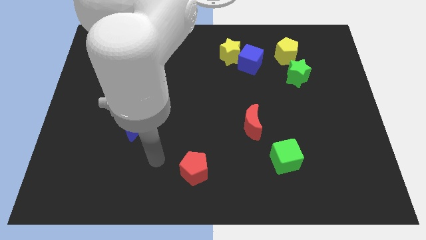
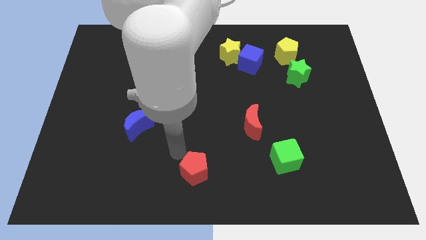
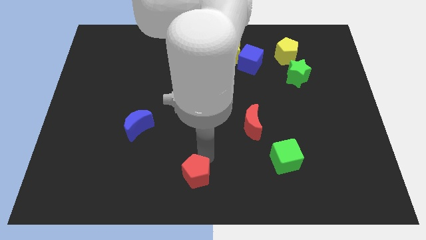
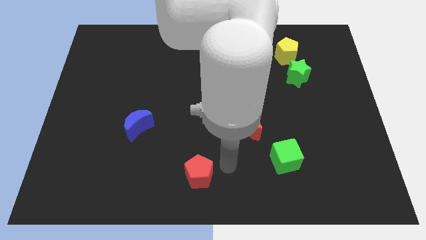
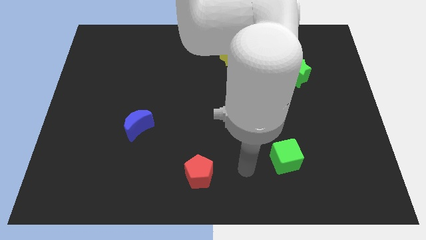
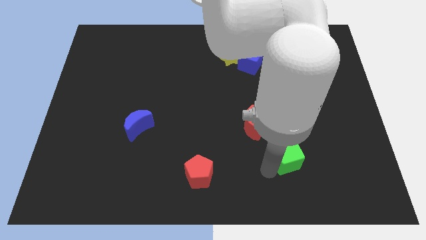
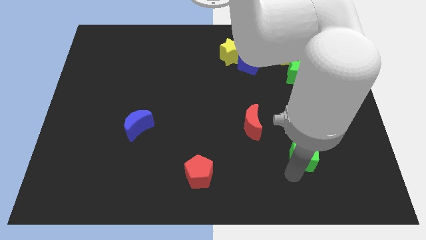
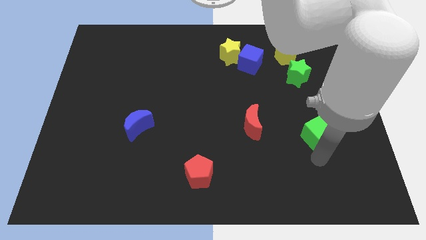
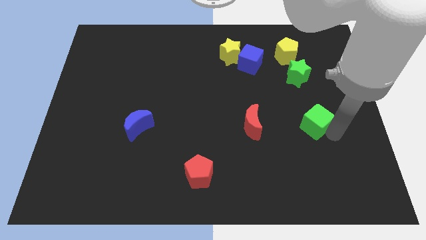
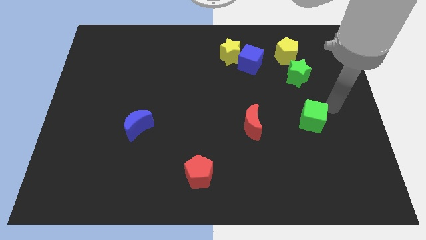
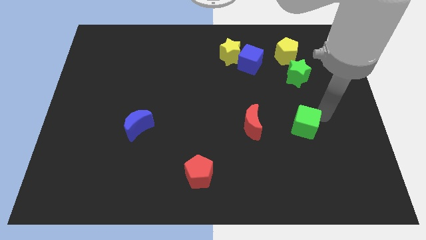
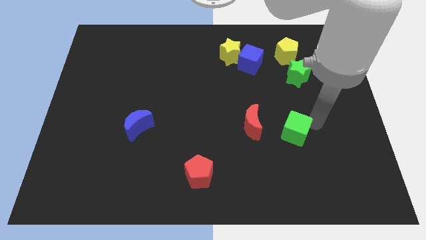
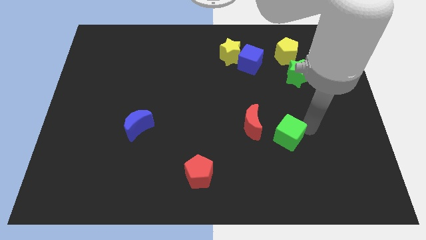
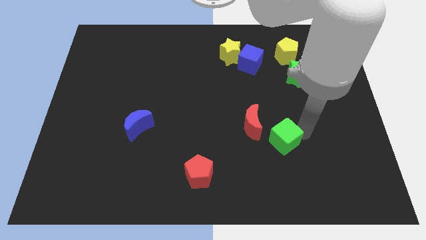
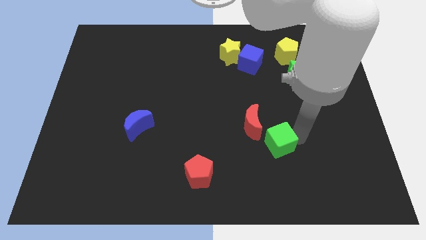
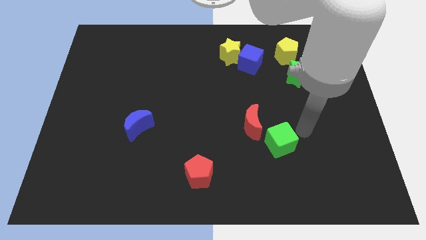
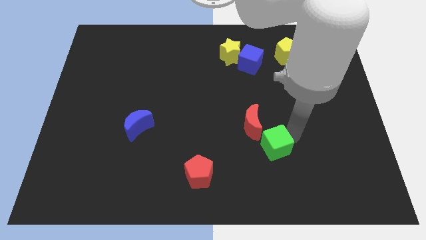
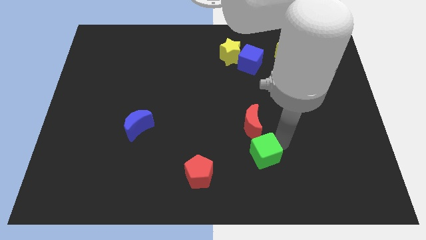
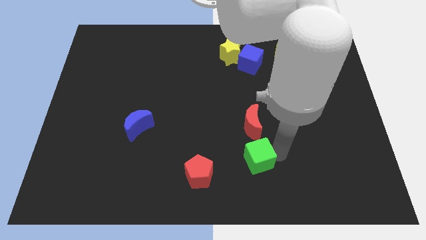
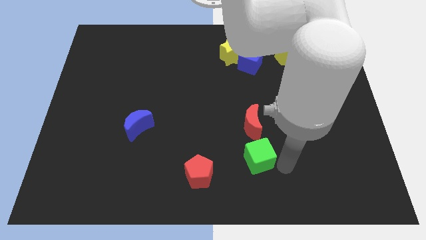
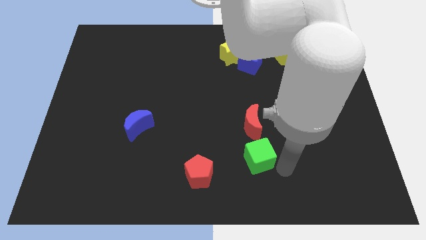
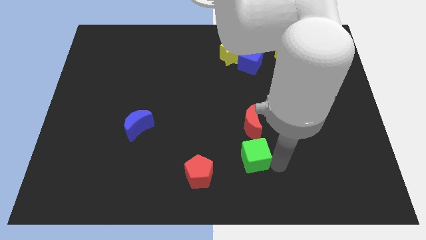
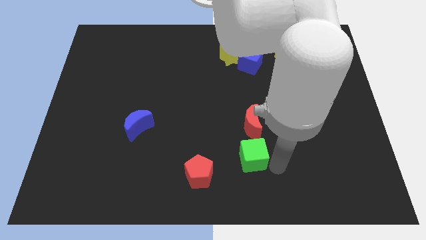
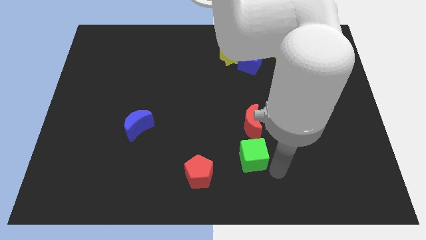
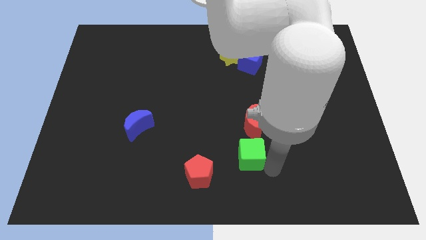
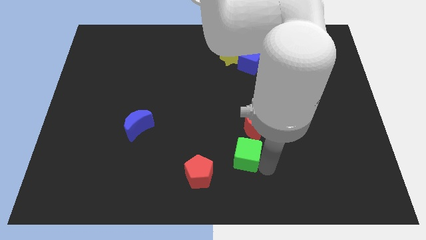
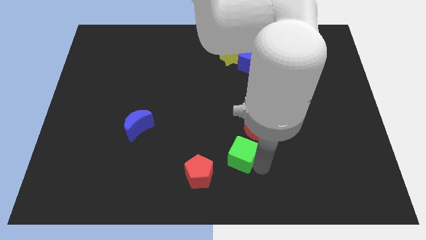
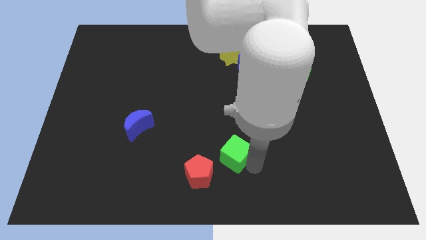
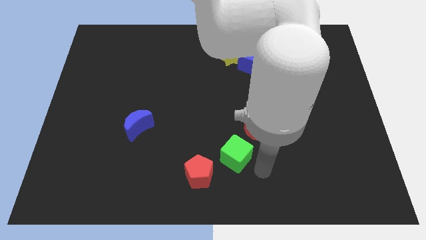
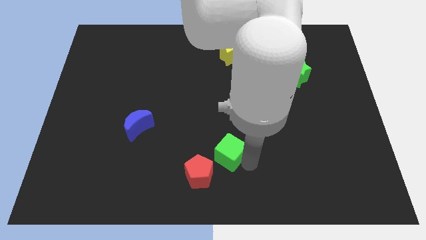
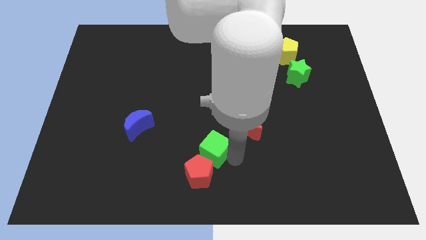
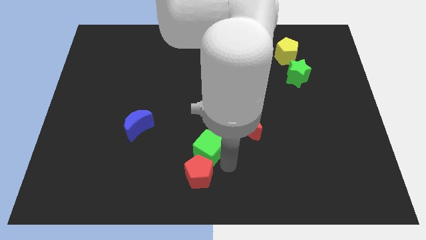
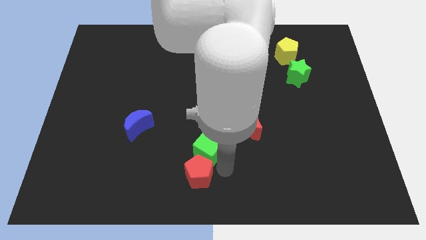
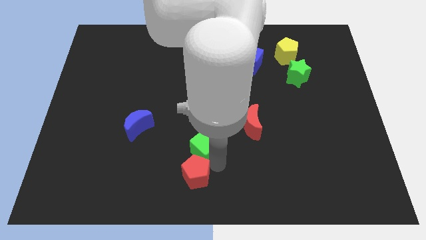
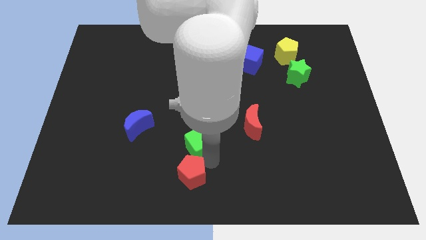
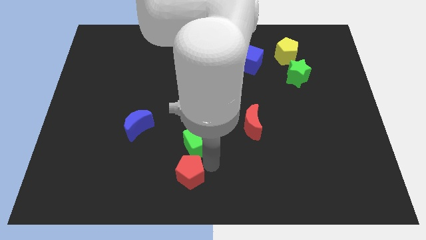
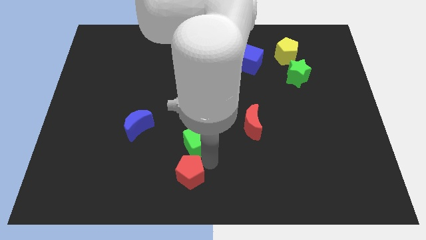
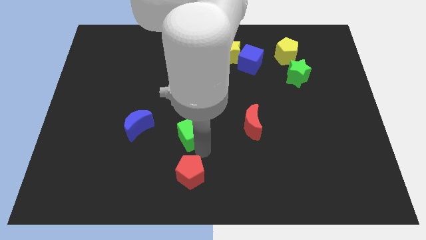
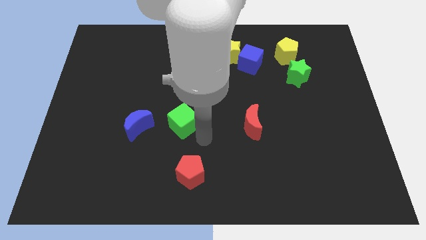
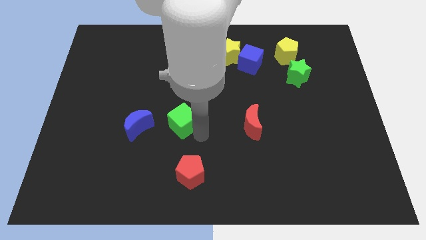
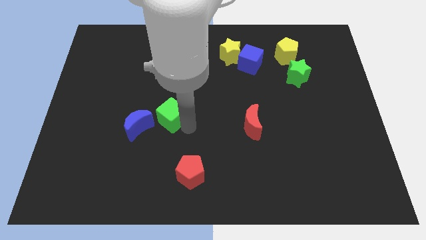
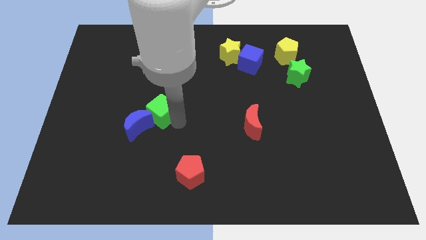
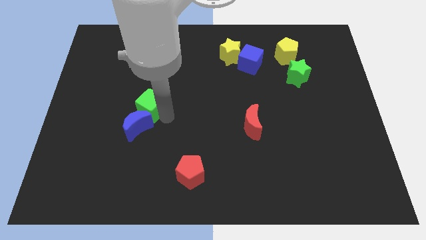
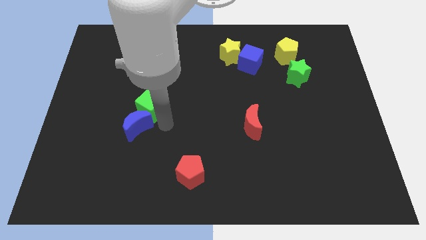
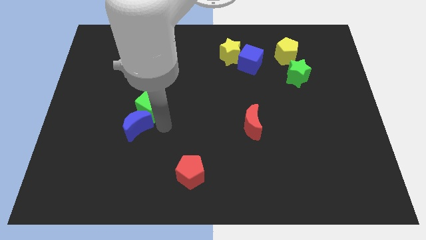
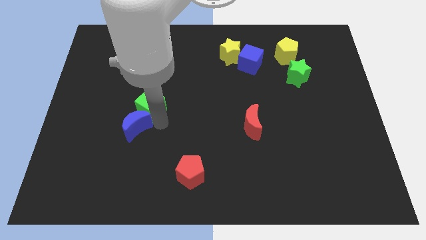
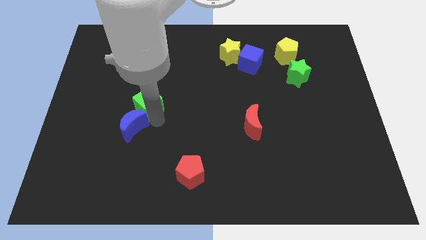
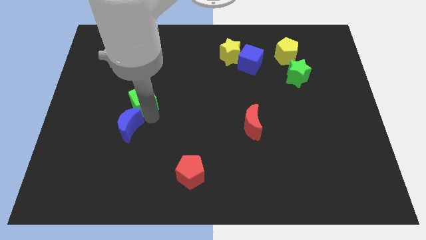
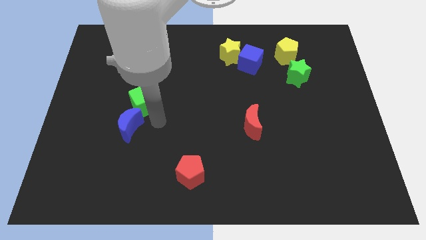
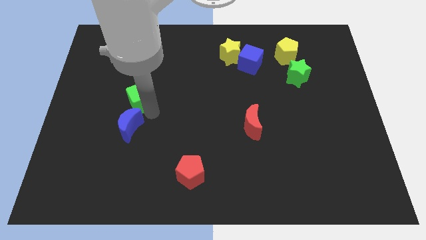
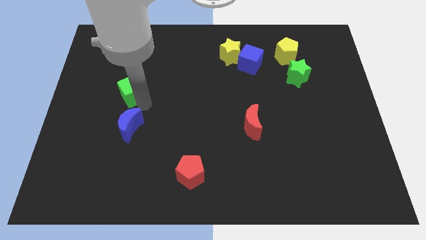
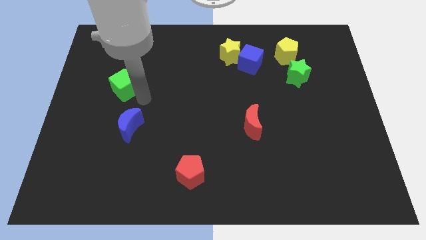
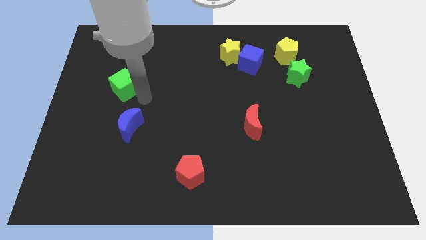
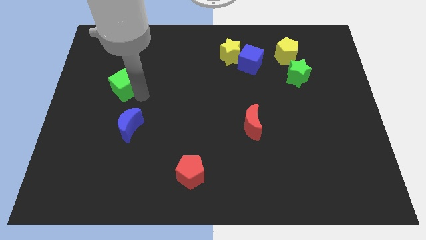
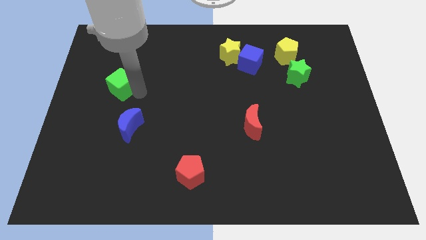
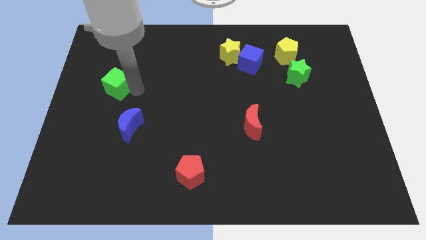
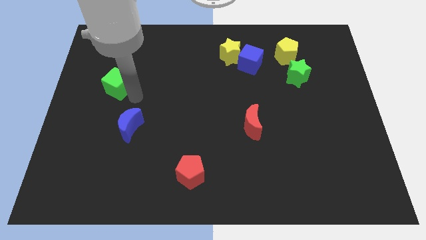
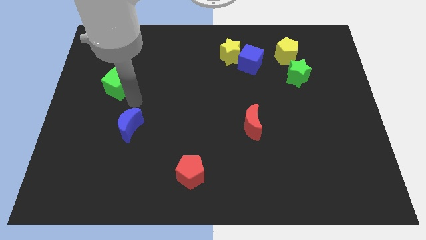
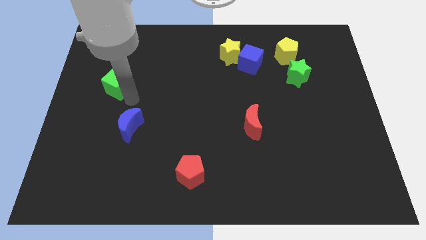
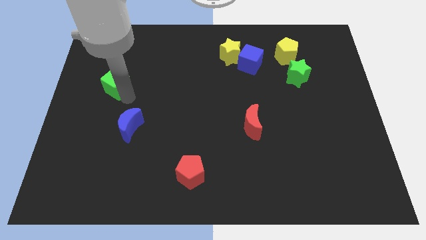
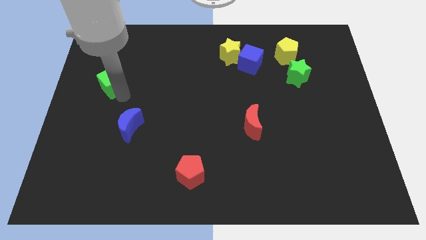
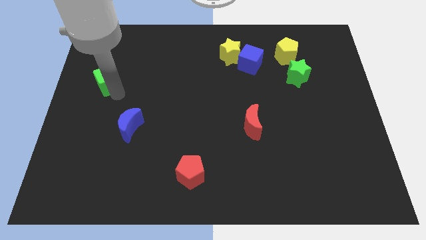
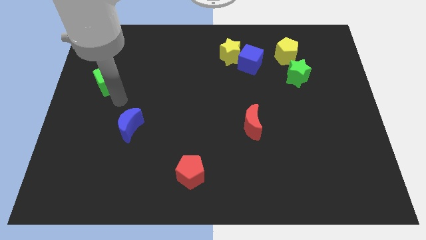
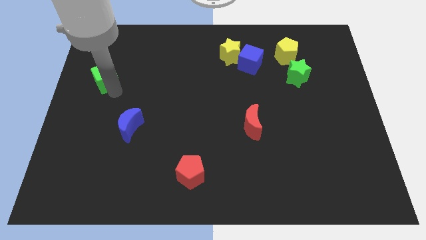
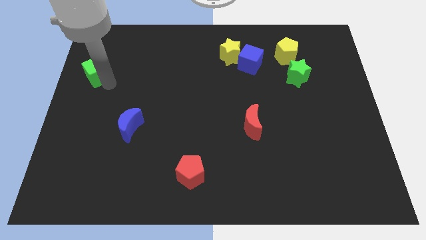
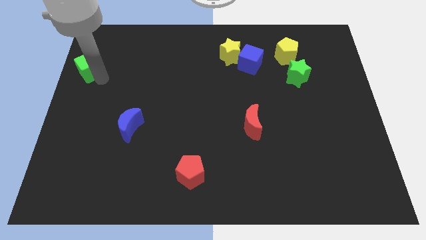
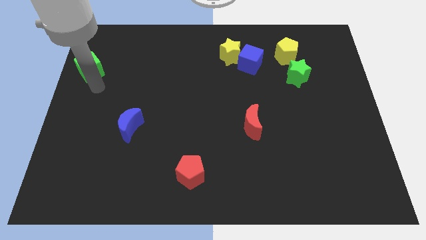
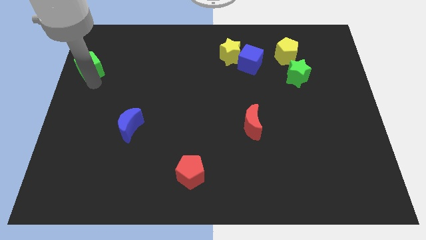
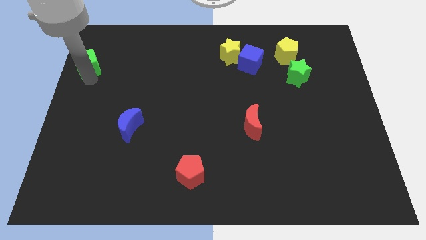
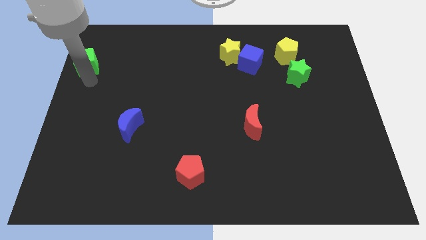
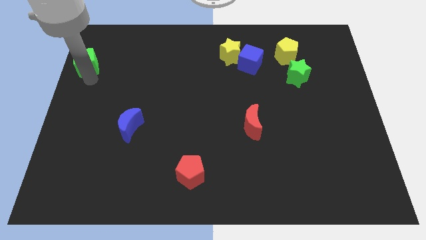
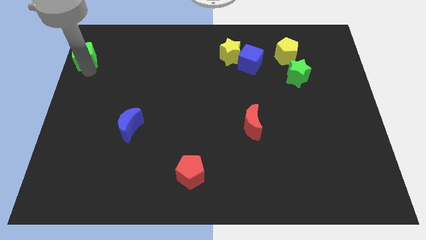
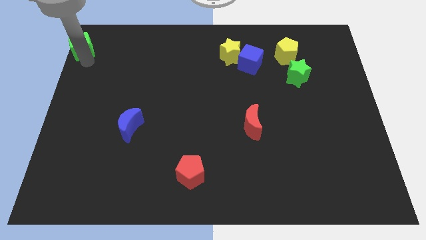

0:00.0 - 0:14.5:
push the green cube to the upper left corner
